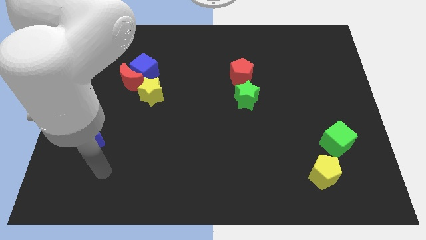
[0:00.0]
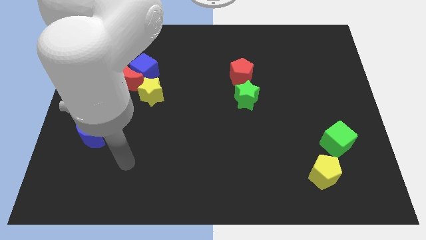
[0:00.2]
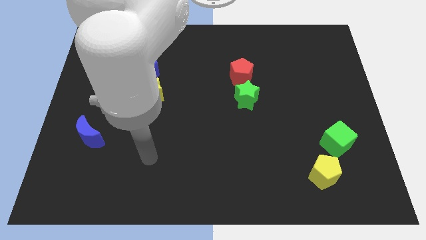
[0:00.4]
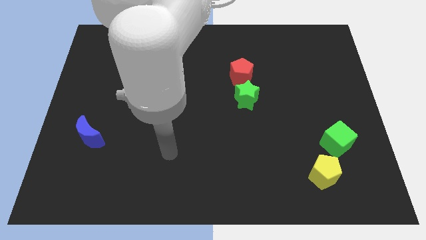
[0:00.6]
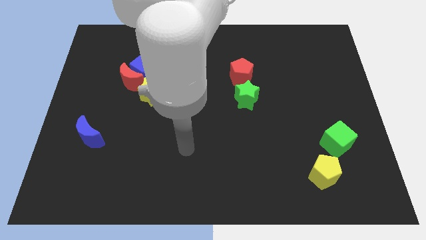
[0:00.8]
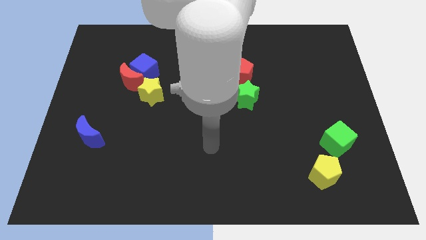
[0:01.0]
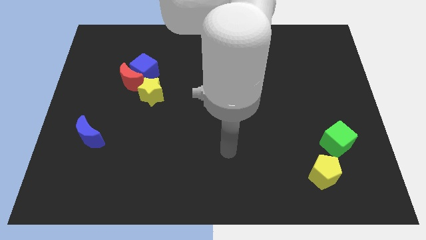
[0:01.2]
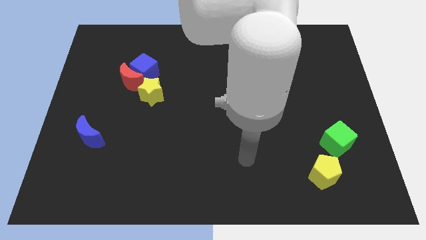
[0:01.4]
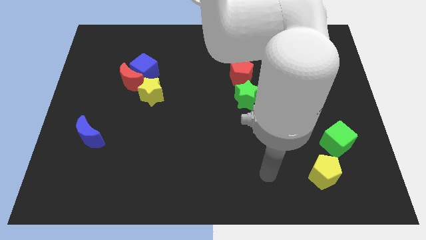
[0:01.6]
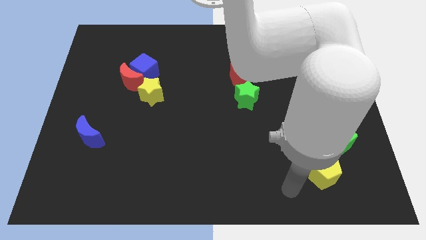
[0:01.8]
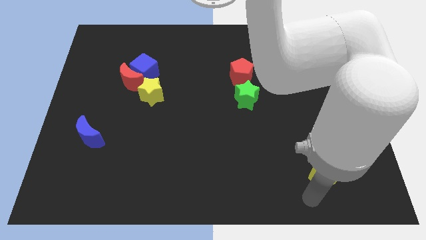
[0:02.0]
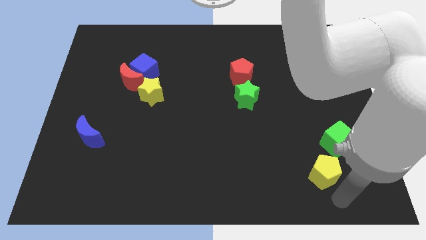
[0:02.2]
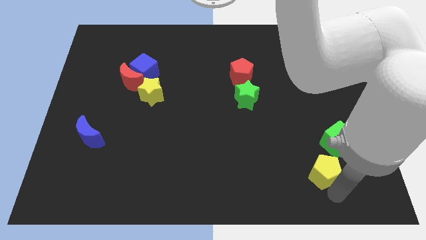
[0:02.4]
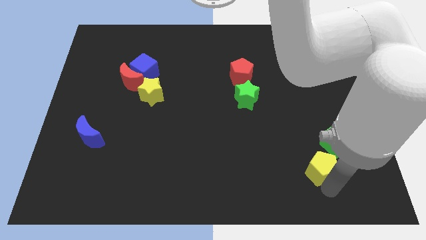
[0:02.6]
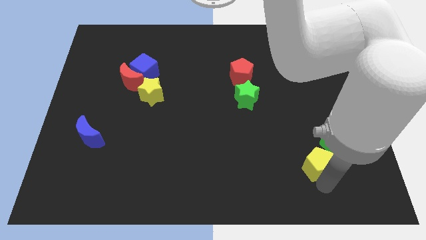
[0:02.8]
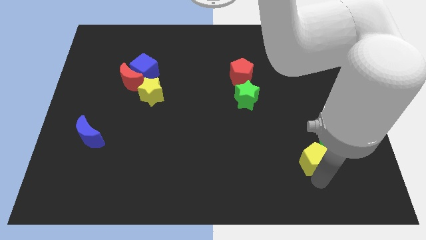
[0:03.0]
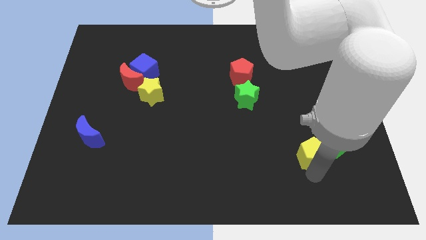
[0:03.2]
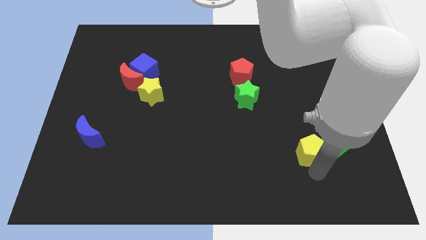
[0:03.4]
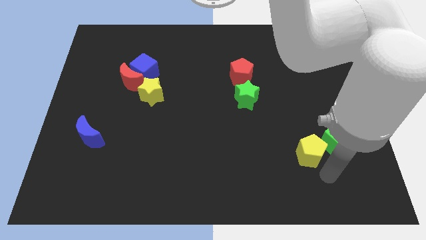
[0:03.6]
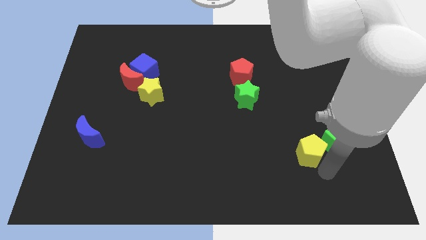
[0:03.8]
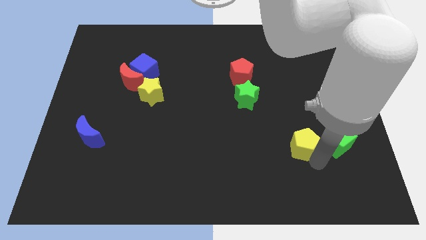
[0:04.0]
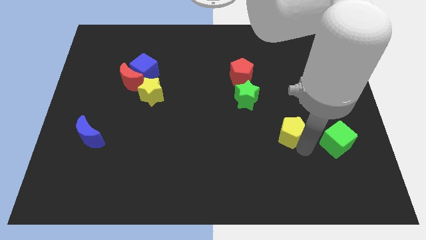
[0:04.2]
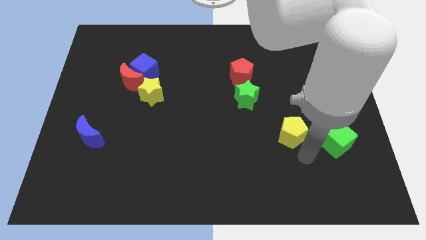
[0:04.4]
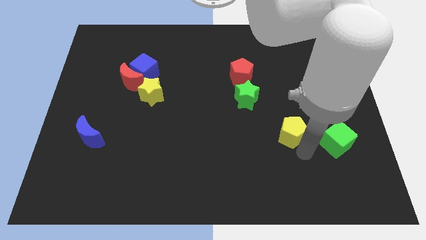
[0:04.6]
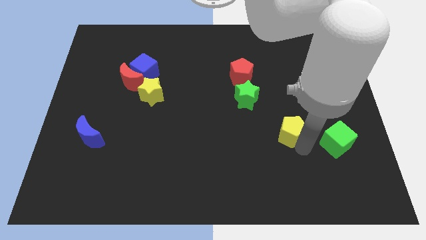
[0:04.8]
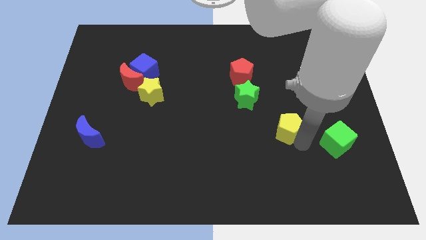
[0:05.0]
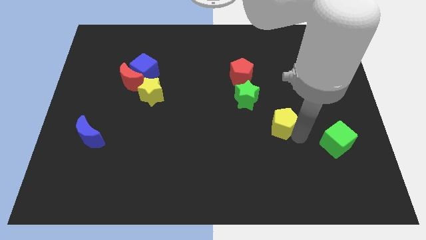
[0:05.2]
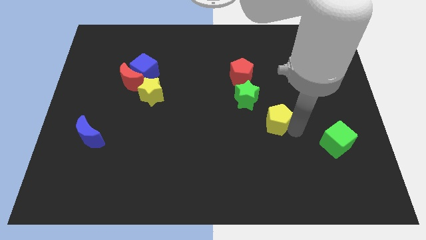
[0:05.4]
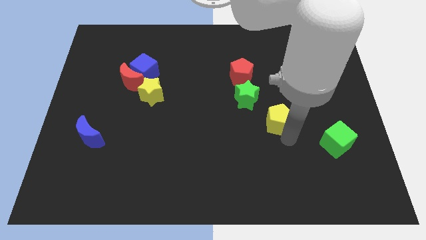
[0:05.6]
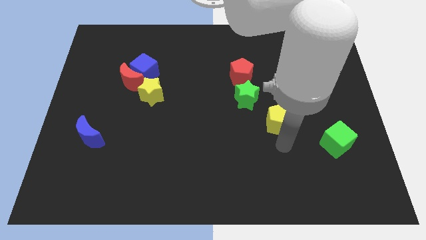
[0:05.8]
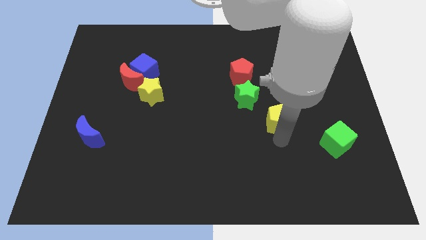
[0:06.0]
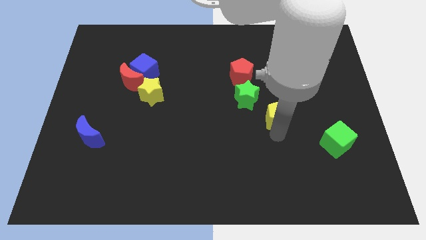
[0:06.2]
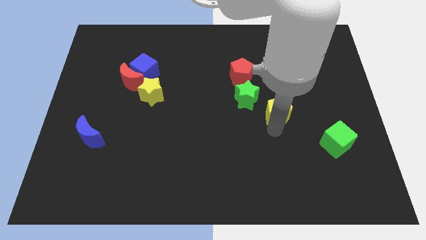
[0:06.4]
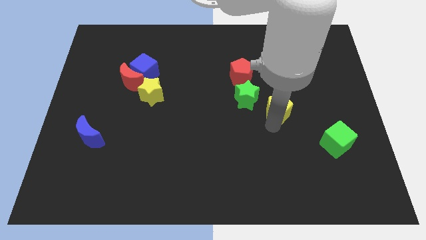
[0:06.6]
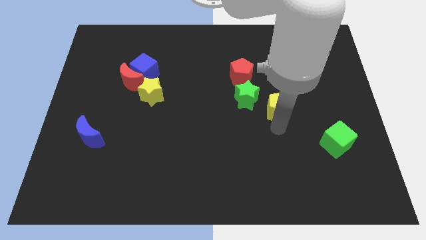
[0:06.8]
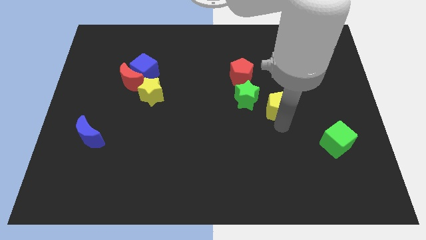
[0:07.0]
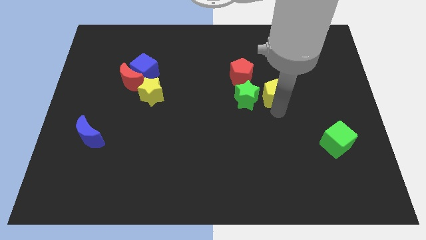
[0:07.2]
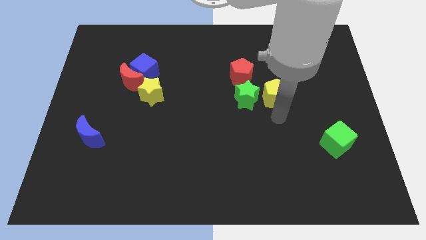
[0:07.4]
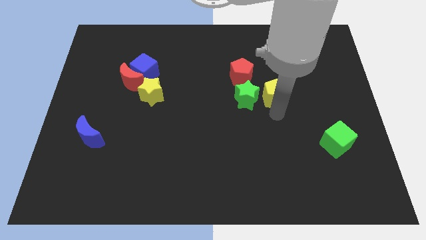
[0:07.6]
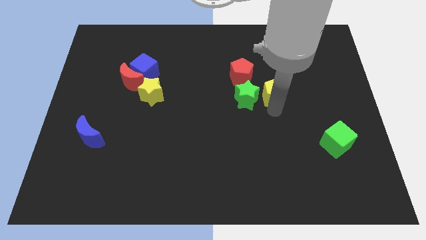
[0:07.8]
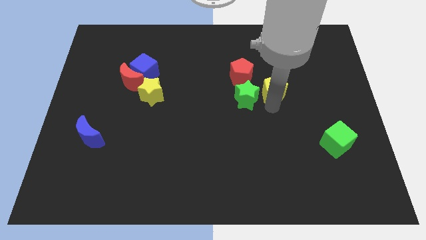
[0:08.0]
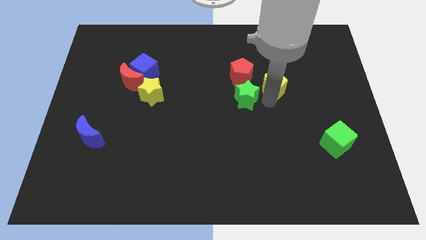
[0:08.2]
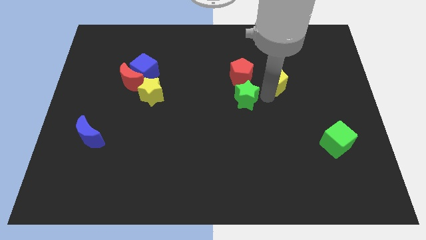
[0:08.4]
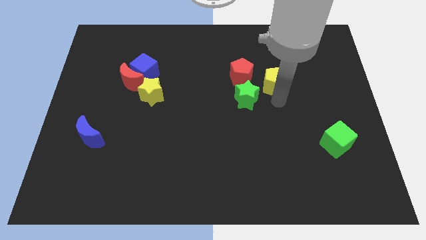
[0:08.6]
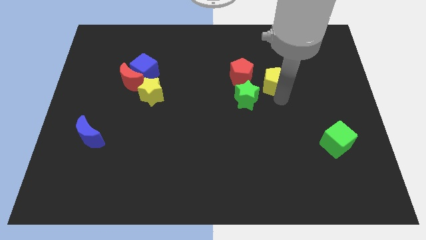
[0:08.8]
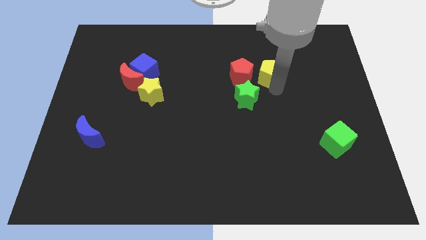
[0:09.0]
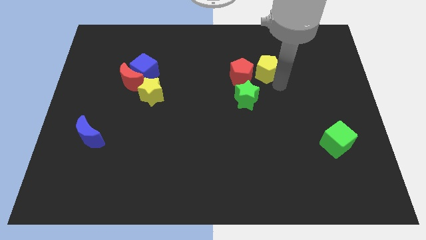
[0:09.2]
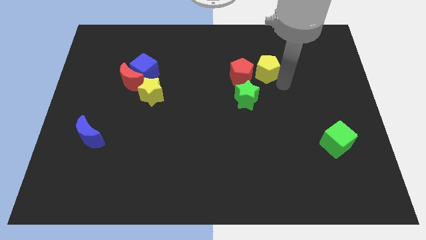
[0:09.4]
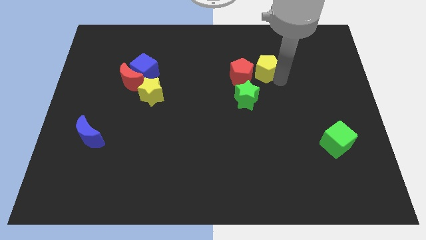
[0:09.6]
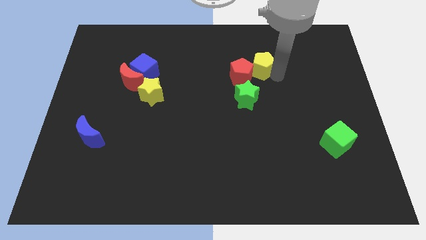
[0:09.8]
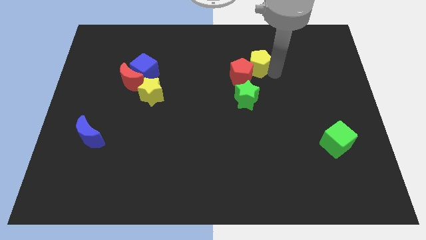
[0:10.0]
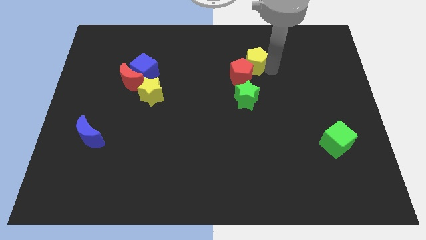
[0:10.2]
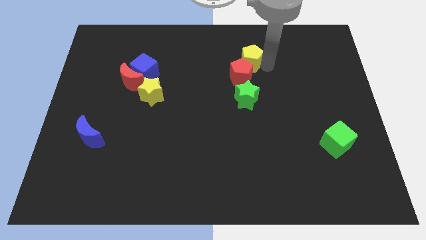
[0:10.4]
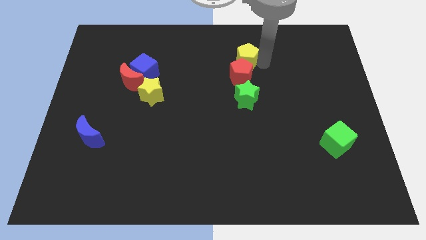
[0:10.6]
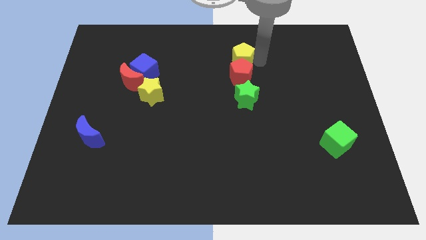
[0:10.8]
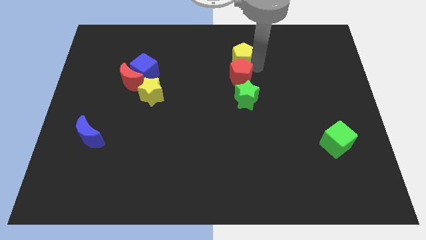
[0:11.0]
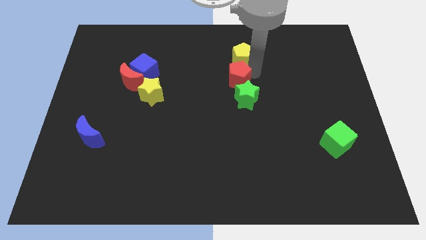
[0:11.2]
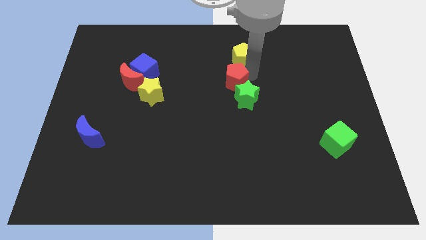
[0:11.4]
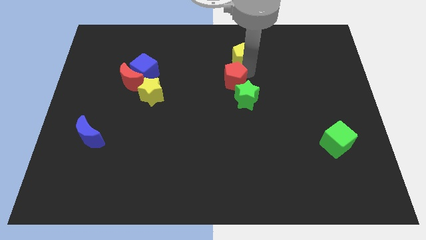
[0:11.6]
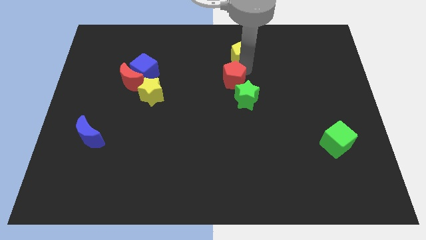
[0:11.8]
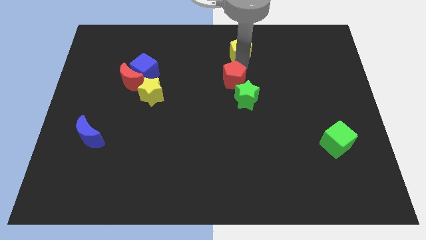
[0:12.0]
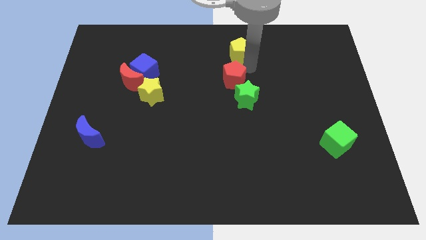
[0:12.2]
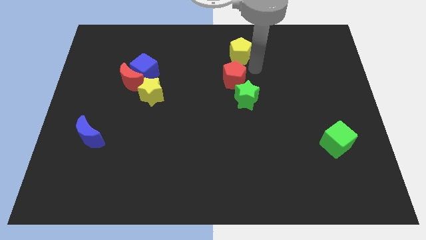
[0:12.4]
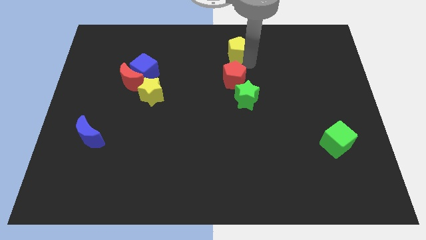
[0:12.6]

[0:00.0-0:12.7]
slide the yellow pentagon to the top side

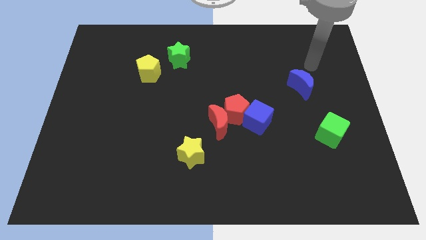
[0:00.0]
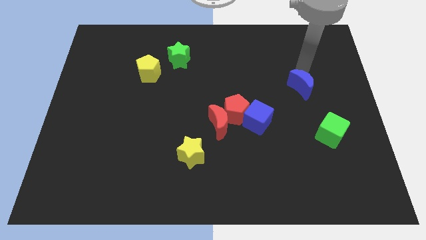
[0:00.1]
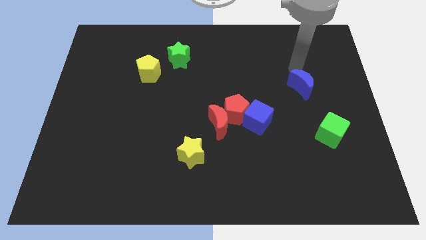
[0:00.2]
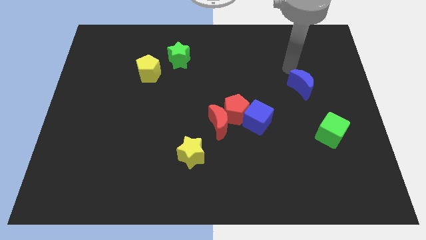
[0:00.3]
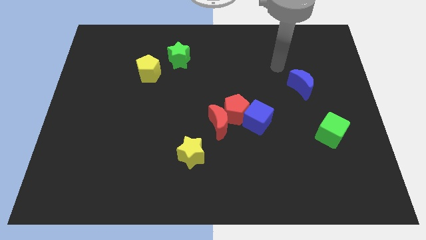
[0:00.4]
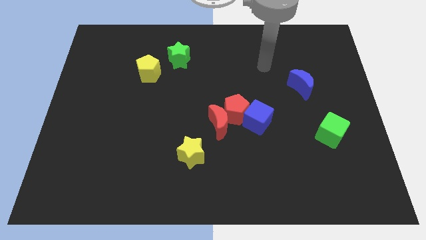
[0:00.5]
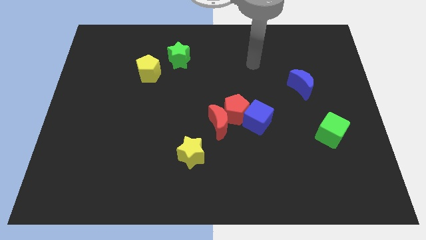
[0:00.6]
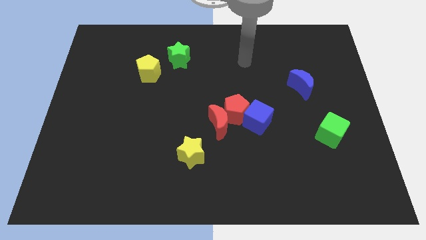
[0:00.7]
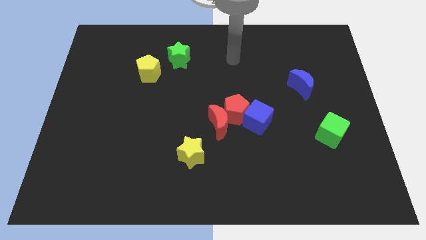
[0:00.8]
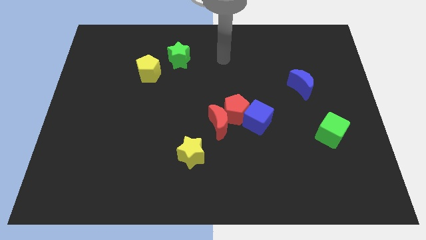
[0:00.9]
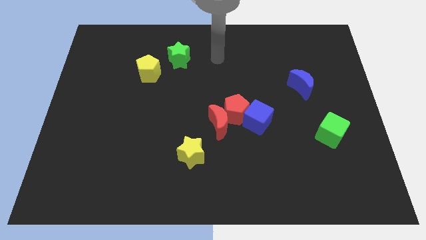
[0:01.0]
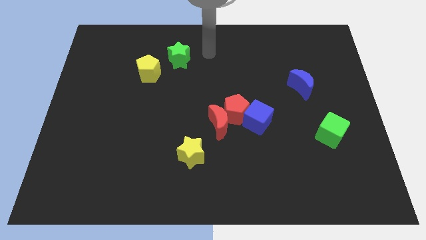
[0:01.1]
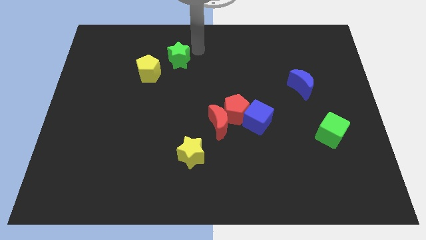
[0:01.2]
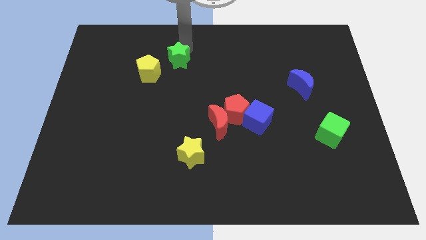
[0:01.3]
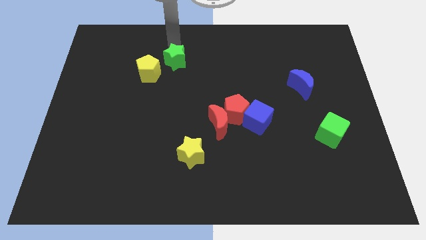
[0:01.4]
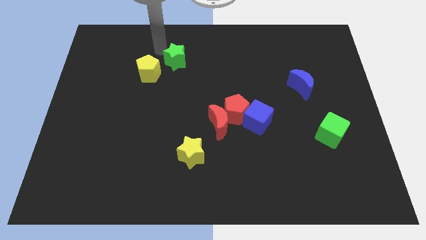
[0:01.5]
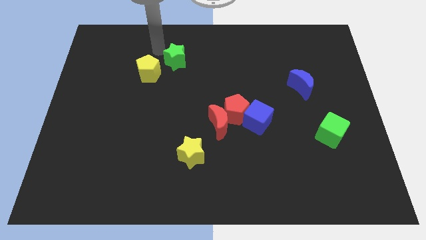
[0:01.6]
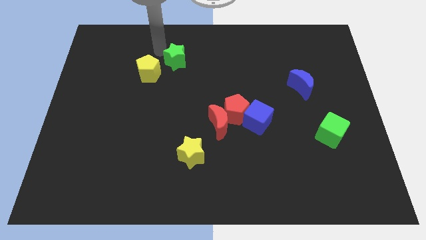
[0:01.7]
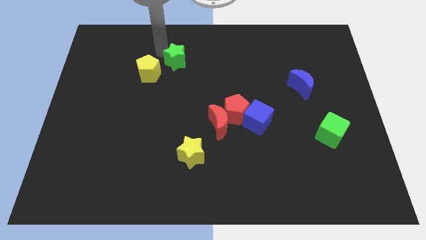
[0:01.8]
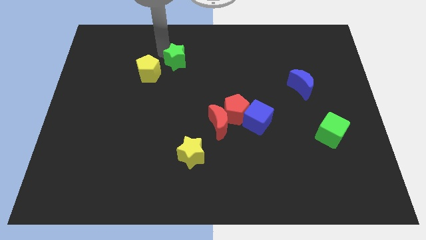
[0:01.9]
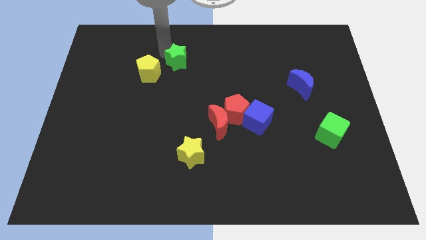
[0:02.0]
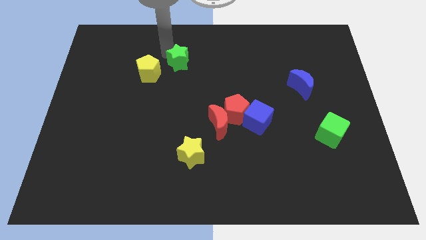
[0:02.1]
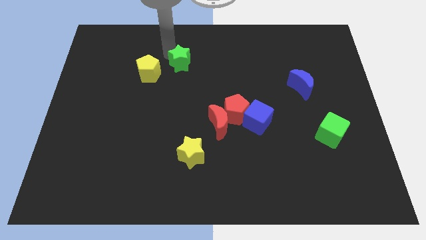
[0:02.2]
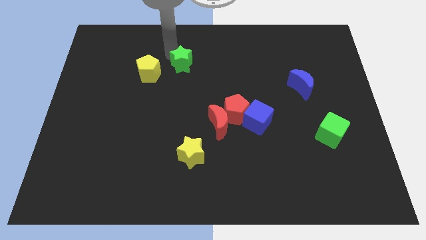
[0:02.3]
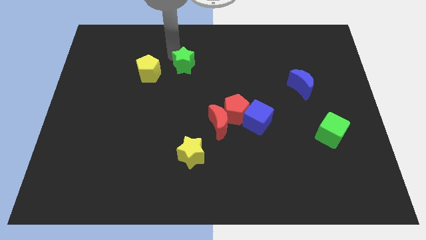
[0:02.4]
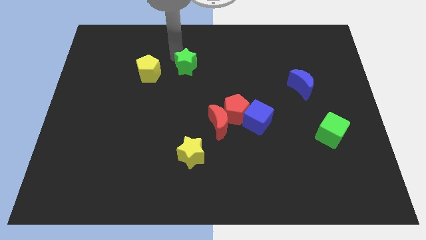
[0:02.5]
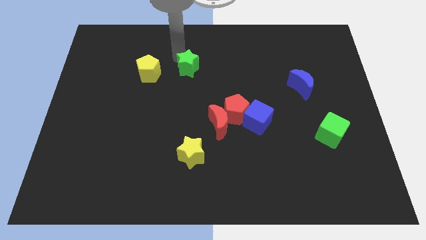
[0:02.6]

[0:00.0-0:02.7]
move the green star to the center
